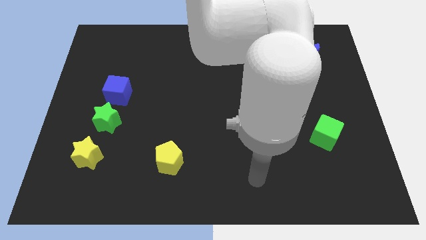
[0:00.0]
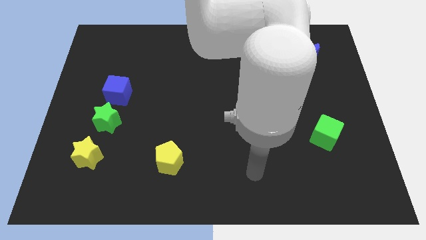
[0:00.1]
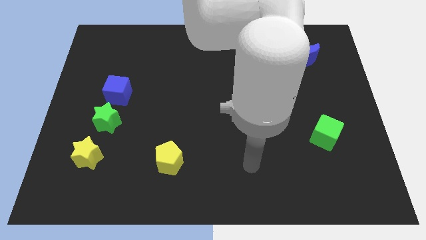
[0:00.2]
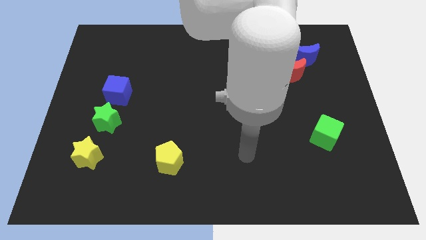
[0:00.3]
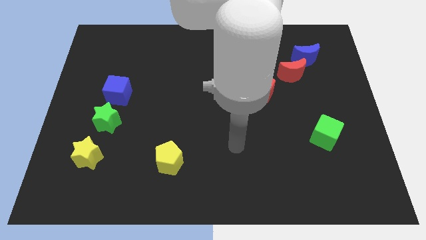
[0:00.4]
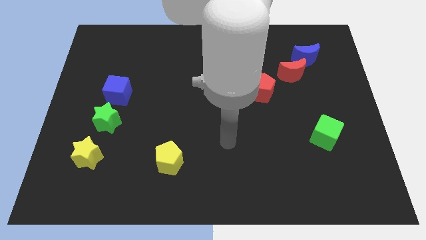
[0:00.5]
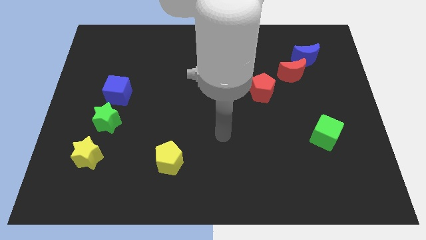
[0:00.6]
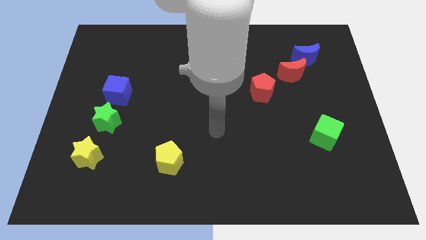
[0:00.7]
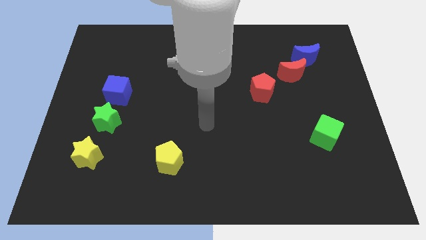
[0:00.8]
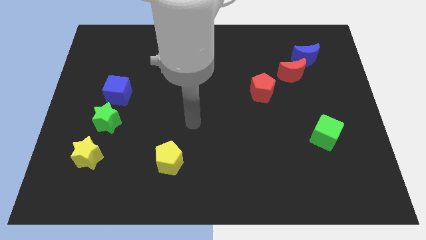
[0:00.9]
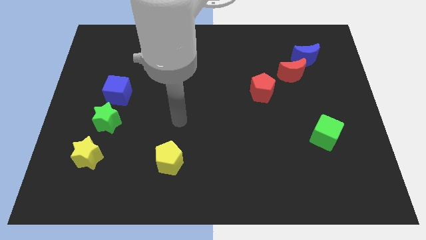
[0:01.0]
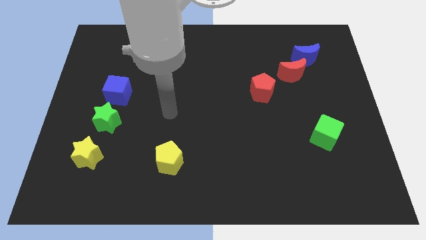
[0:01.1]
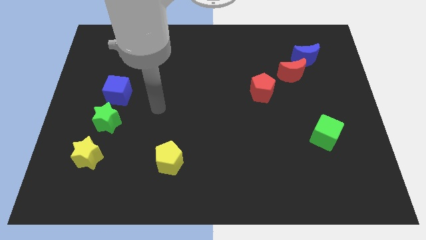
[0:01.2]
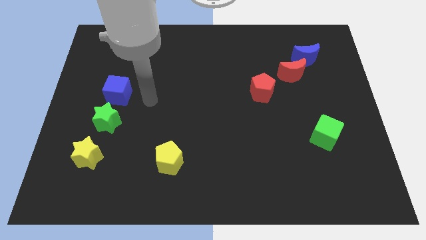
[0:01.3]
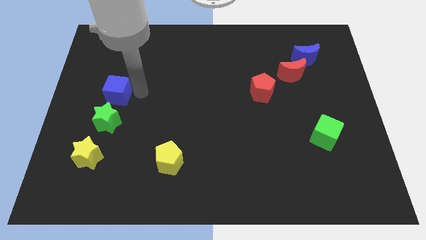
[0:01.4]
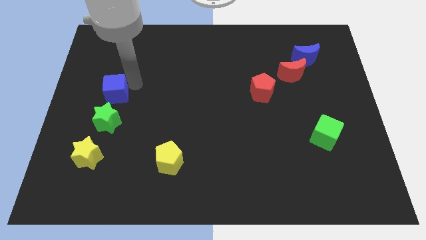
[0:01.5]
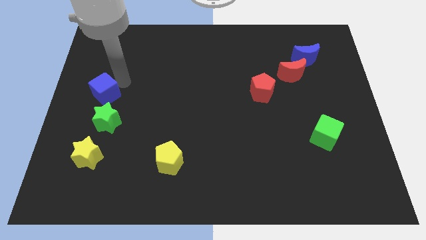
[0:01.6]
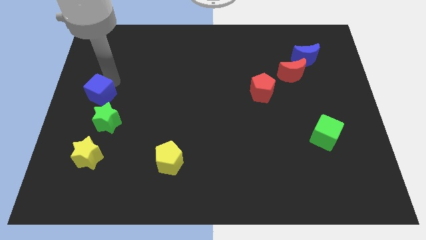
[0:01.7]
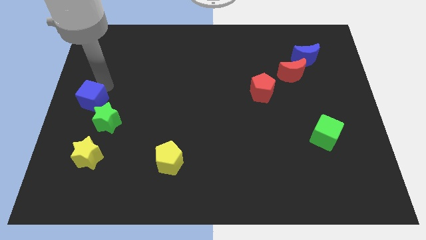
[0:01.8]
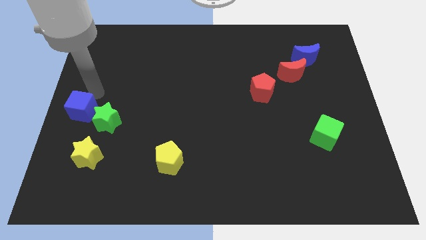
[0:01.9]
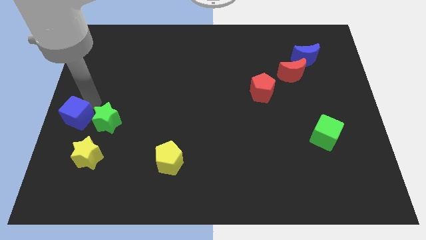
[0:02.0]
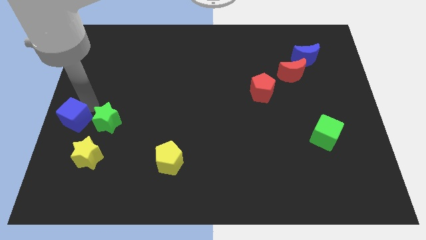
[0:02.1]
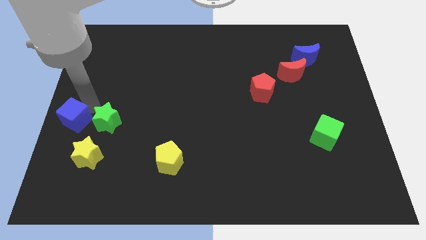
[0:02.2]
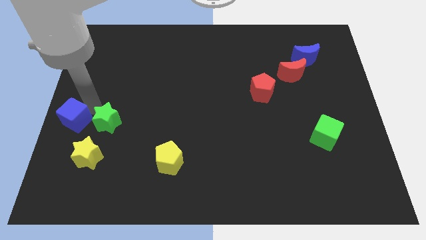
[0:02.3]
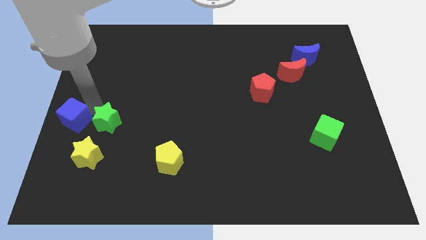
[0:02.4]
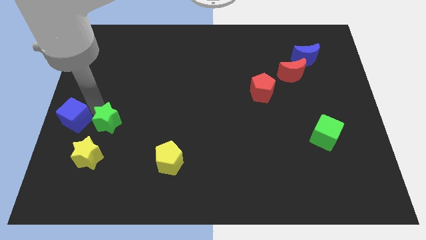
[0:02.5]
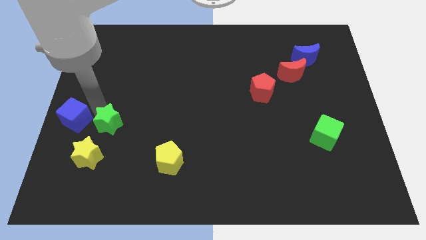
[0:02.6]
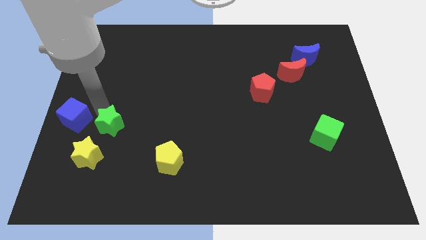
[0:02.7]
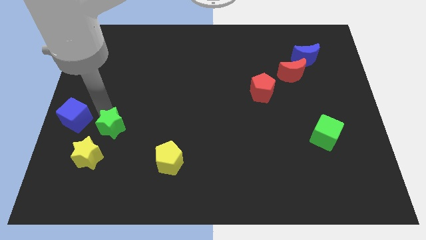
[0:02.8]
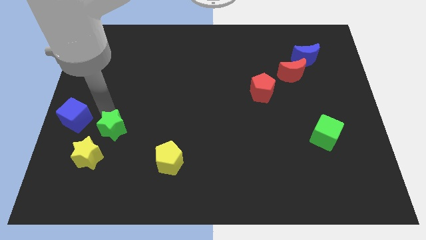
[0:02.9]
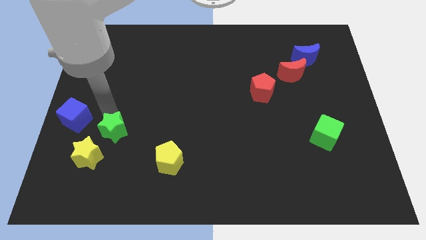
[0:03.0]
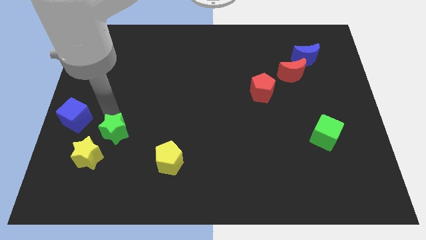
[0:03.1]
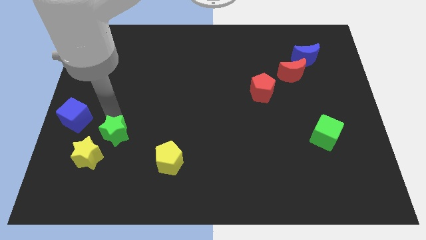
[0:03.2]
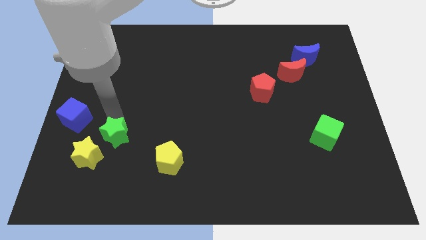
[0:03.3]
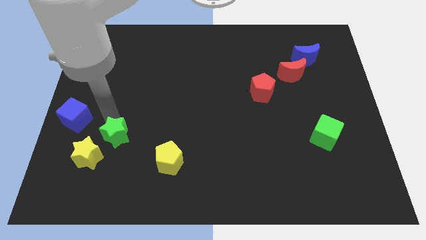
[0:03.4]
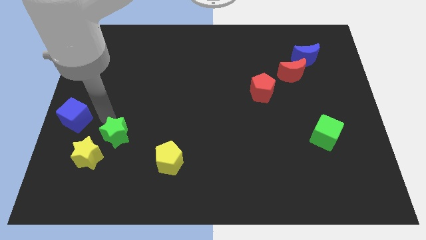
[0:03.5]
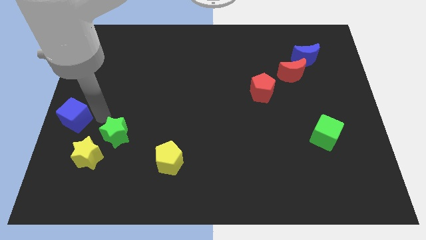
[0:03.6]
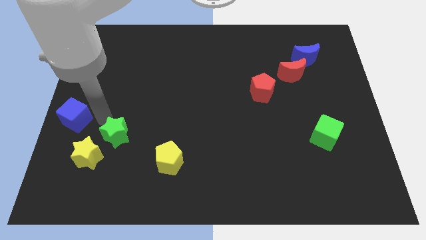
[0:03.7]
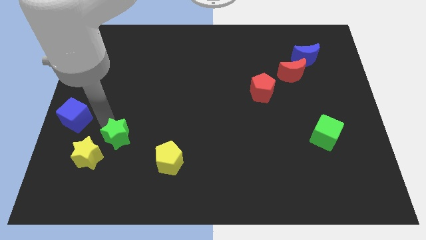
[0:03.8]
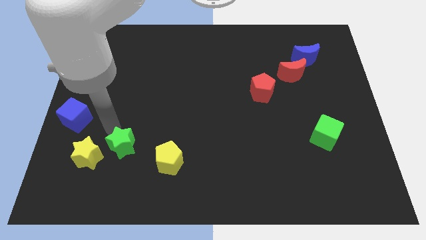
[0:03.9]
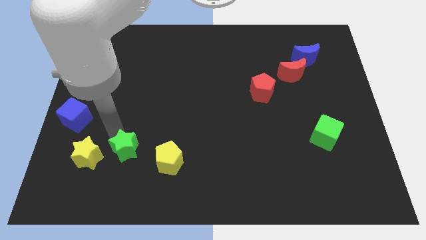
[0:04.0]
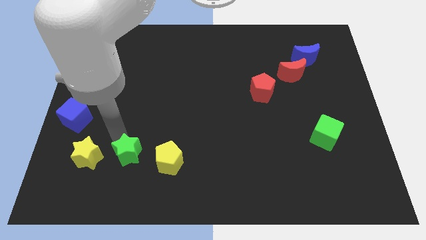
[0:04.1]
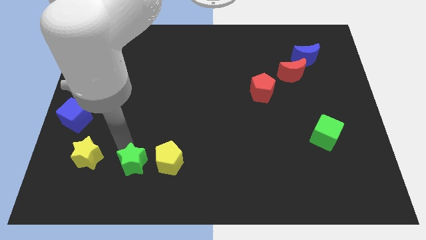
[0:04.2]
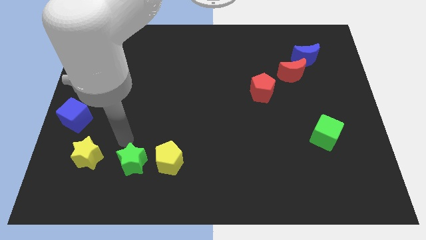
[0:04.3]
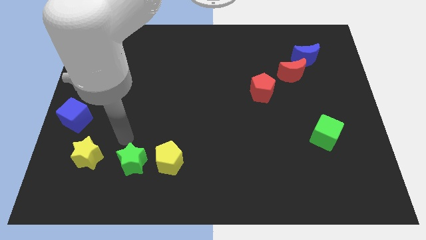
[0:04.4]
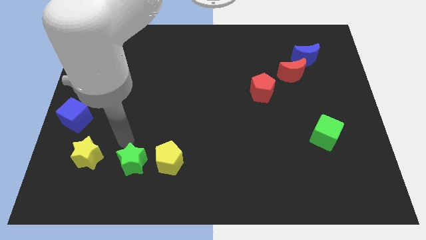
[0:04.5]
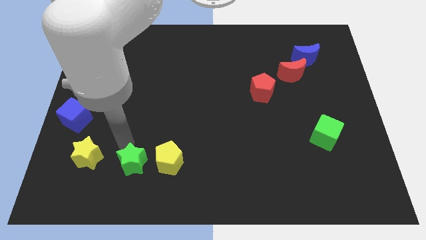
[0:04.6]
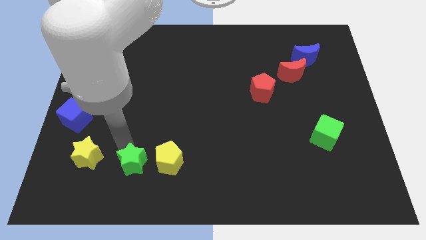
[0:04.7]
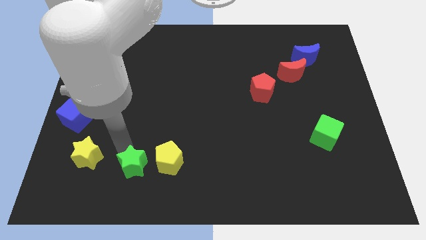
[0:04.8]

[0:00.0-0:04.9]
slide the green star diagonally down and to the left of the yellow pentagon

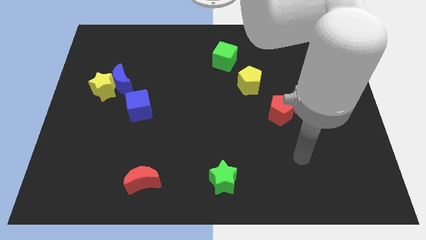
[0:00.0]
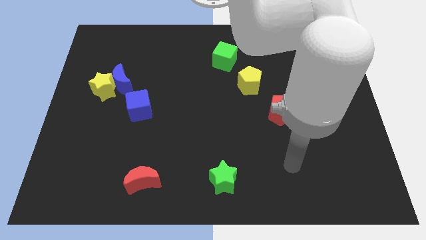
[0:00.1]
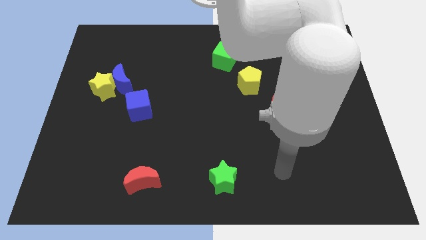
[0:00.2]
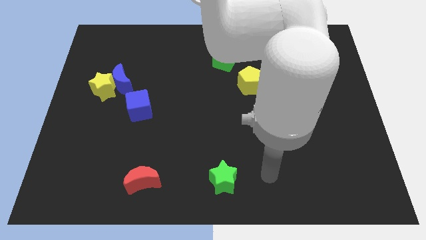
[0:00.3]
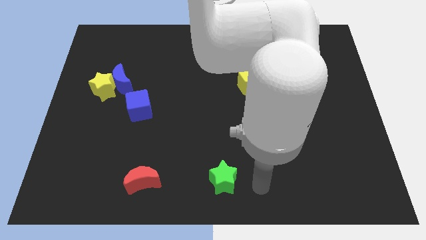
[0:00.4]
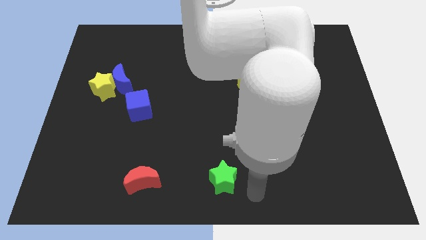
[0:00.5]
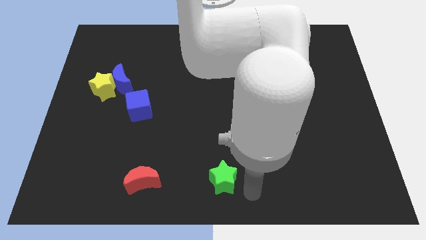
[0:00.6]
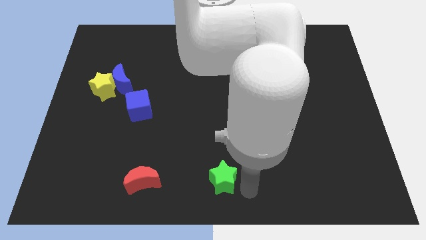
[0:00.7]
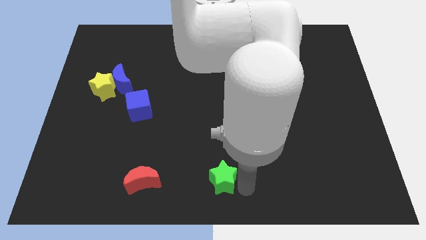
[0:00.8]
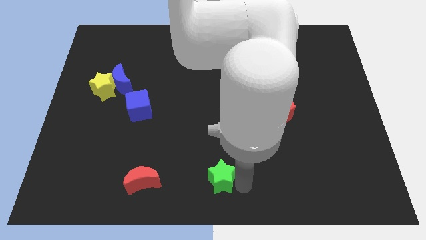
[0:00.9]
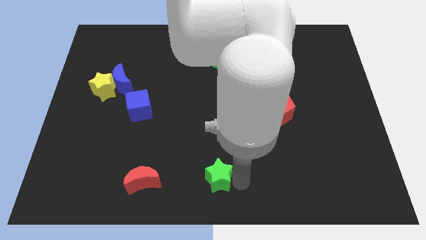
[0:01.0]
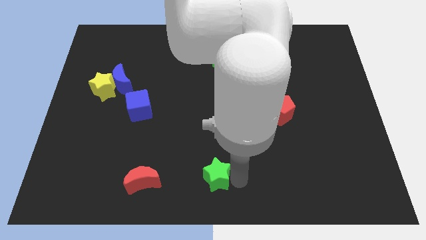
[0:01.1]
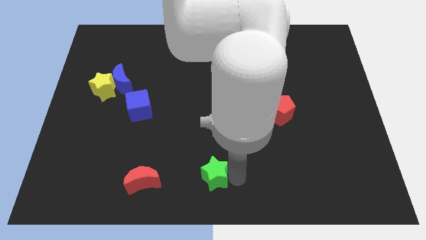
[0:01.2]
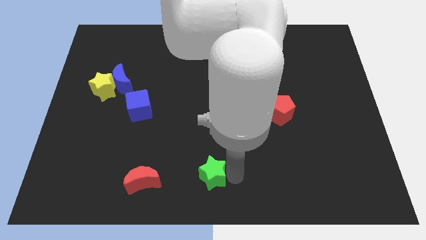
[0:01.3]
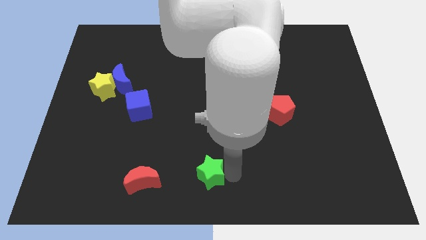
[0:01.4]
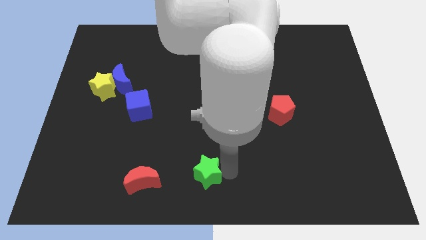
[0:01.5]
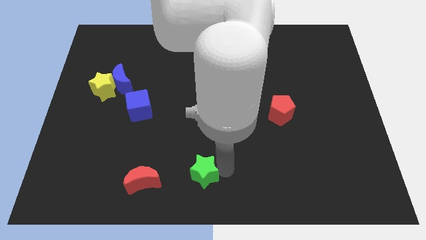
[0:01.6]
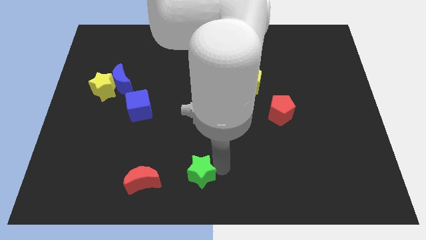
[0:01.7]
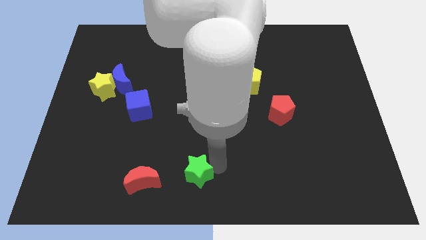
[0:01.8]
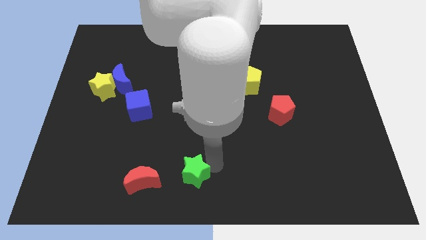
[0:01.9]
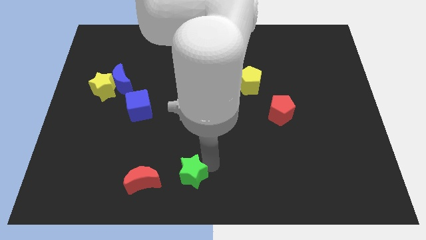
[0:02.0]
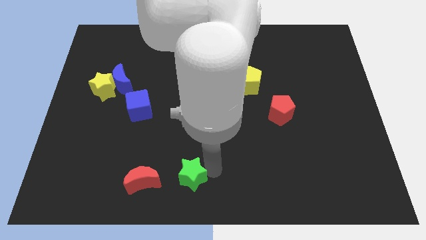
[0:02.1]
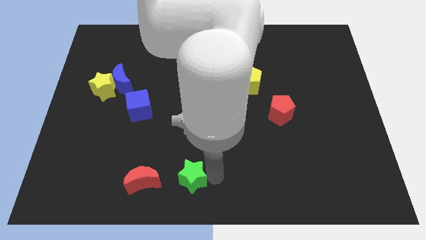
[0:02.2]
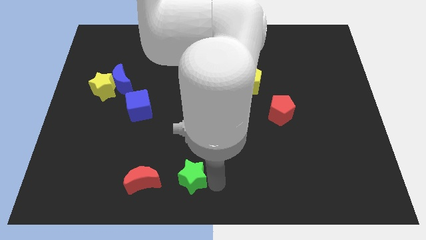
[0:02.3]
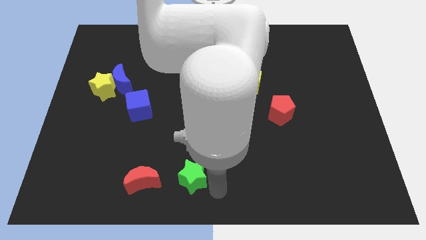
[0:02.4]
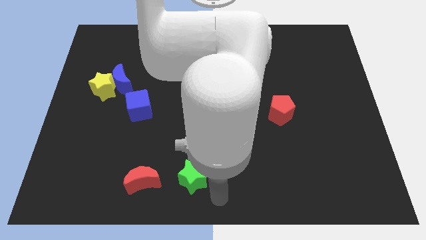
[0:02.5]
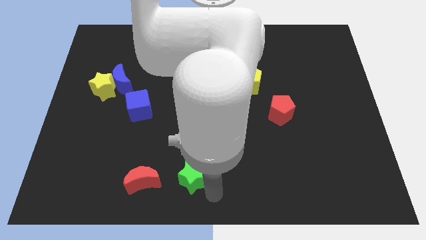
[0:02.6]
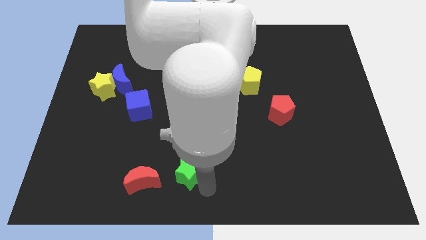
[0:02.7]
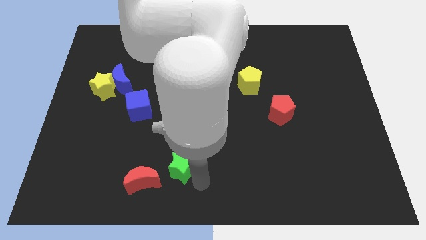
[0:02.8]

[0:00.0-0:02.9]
push the green star diagonally up and to the right of the red moon

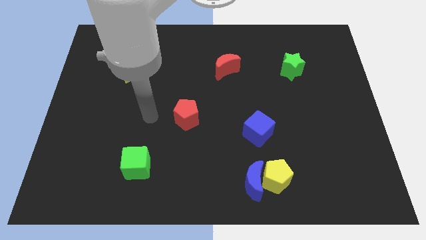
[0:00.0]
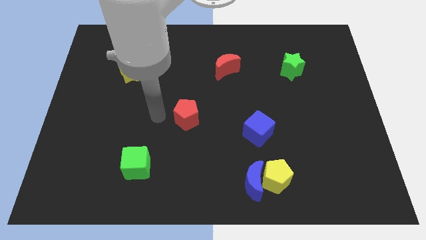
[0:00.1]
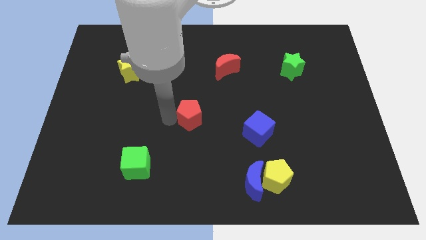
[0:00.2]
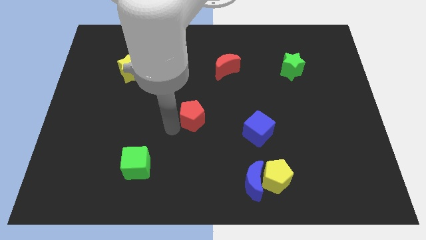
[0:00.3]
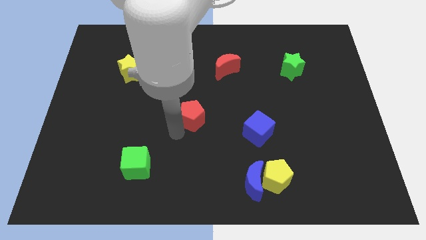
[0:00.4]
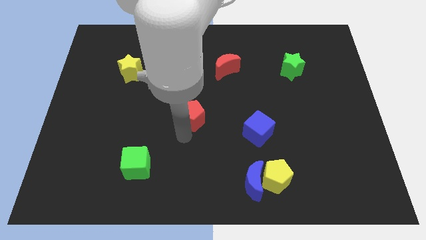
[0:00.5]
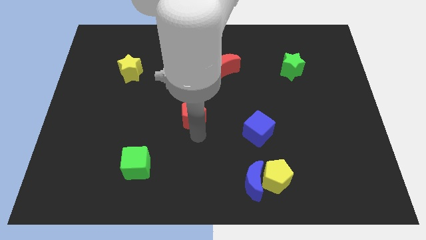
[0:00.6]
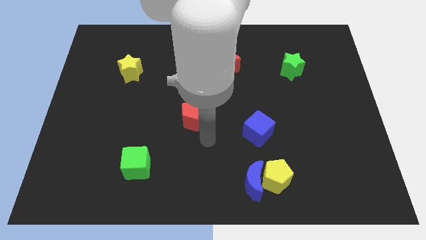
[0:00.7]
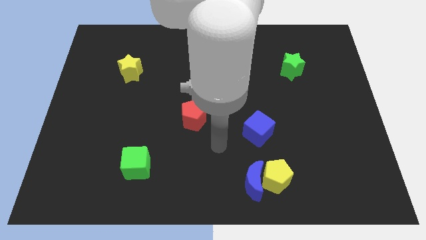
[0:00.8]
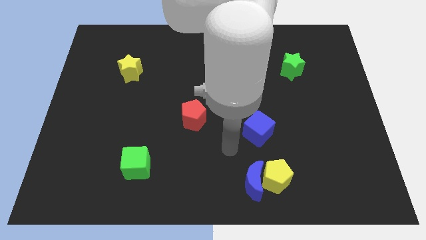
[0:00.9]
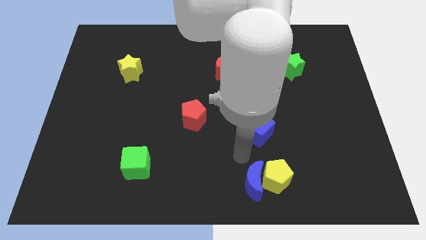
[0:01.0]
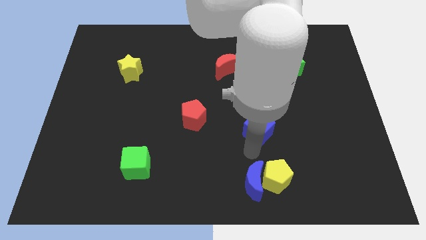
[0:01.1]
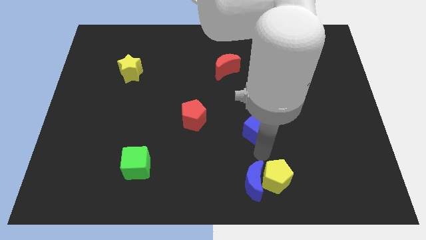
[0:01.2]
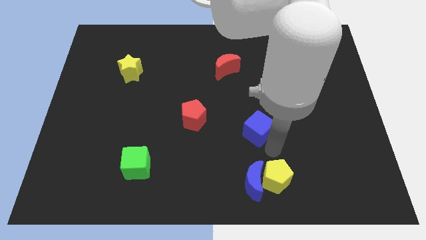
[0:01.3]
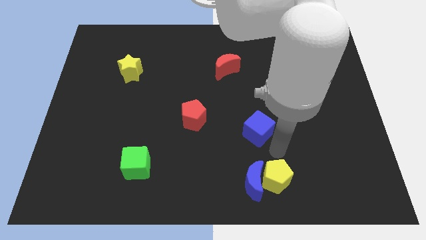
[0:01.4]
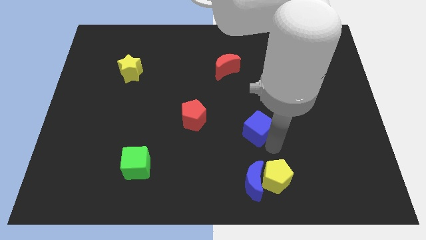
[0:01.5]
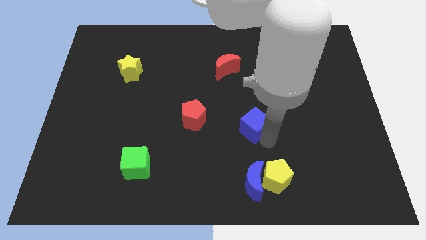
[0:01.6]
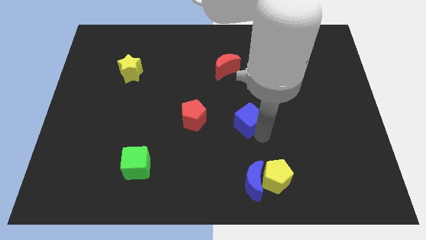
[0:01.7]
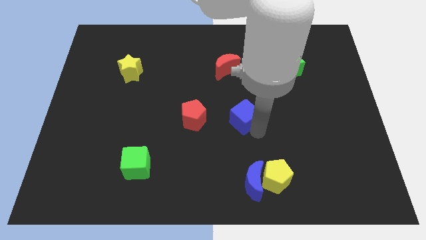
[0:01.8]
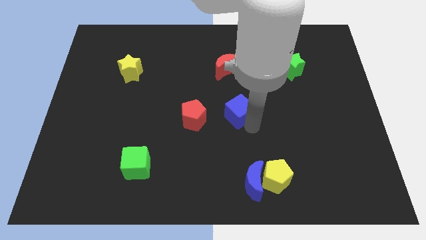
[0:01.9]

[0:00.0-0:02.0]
move the blue cube below the red moon
